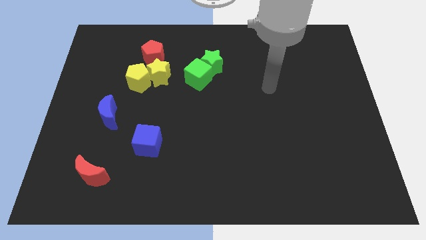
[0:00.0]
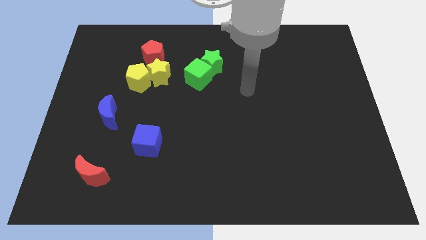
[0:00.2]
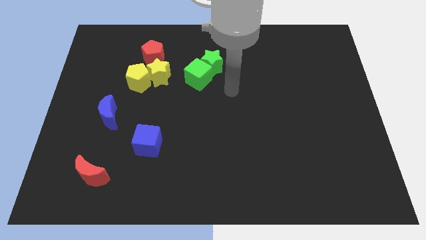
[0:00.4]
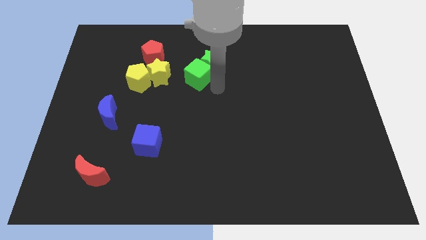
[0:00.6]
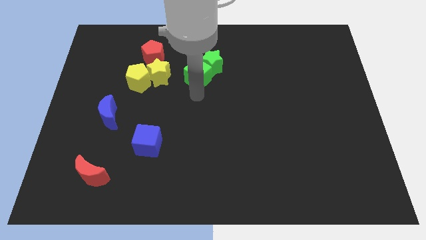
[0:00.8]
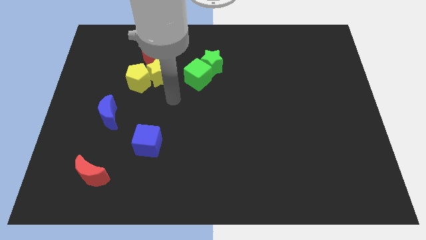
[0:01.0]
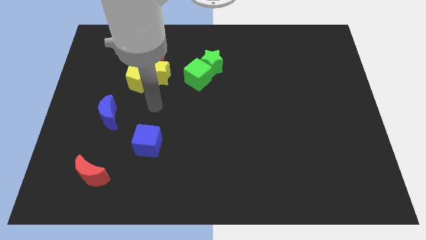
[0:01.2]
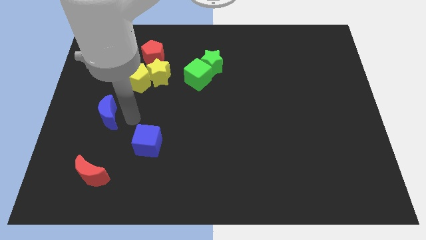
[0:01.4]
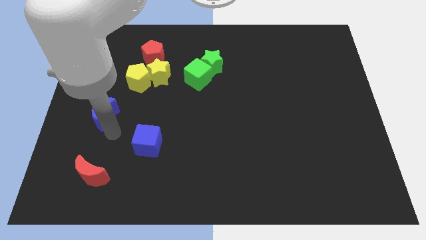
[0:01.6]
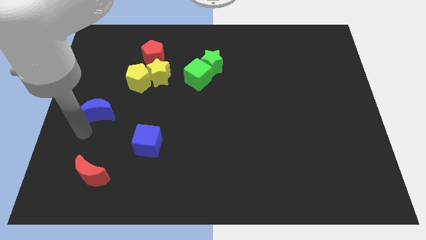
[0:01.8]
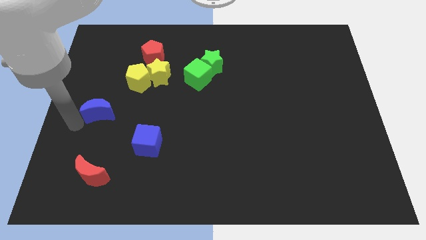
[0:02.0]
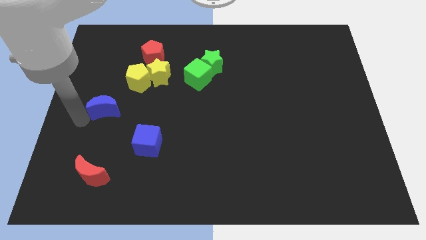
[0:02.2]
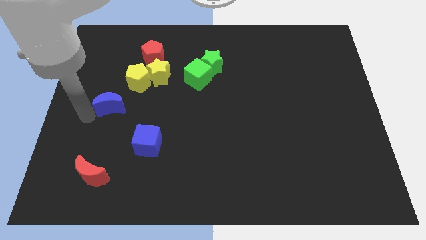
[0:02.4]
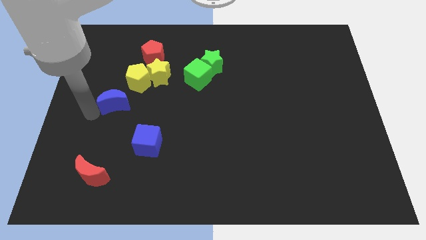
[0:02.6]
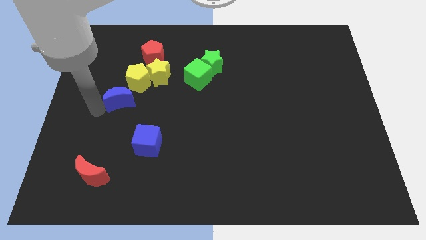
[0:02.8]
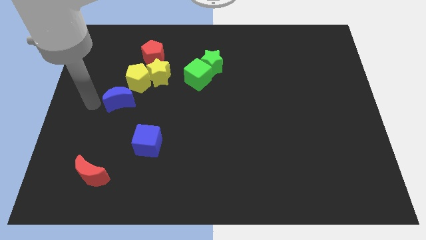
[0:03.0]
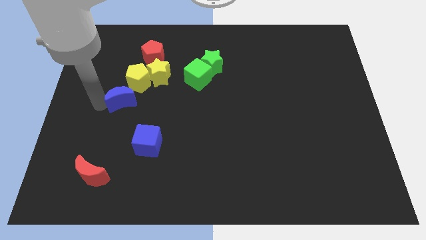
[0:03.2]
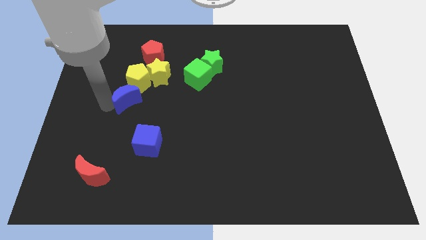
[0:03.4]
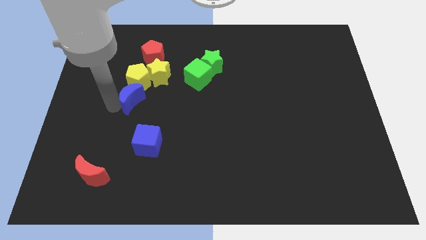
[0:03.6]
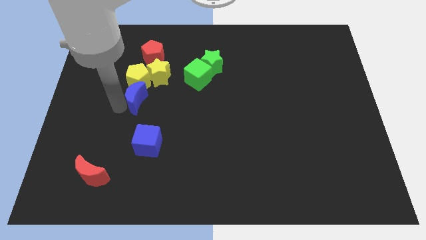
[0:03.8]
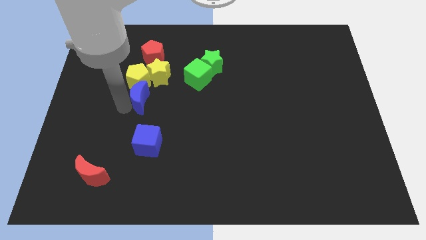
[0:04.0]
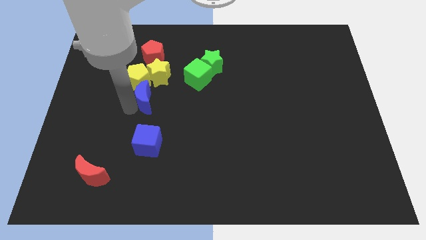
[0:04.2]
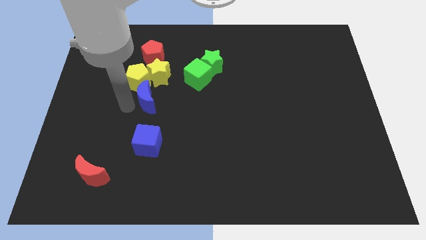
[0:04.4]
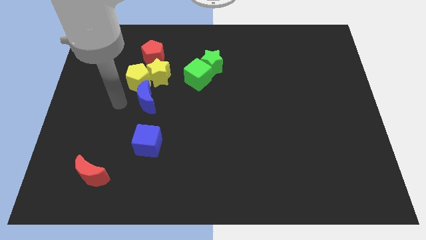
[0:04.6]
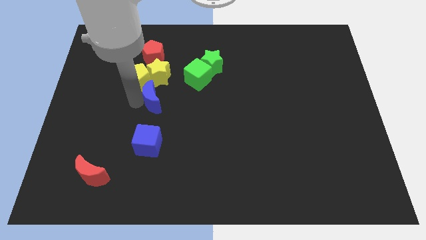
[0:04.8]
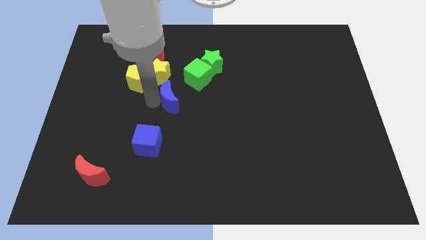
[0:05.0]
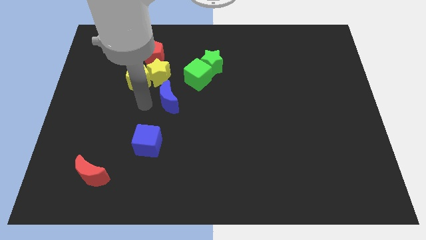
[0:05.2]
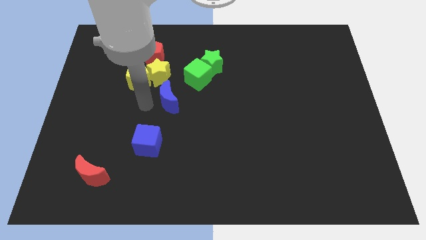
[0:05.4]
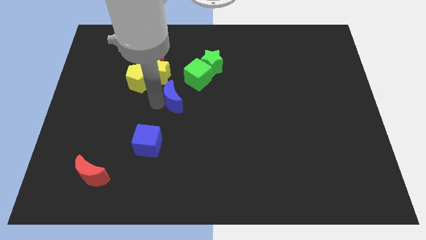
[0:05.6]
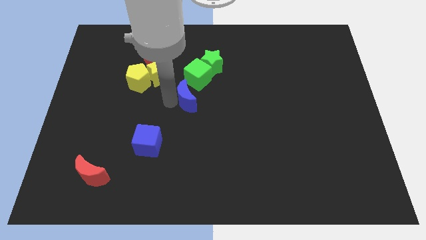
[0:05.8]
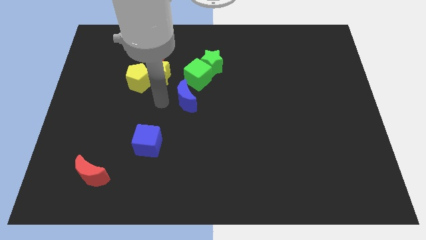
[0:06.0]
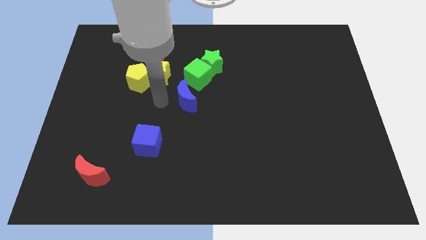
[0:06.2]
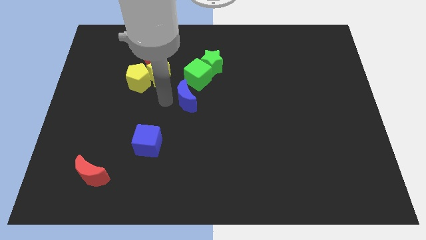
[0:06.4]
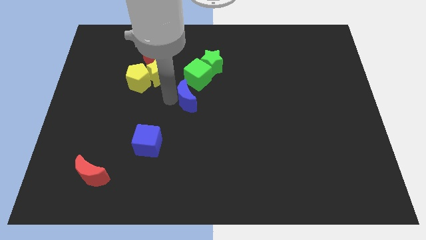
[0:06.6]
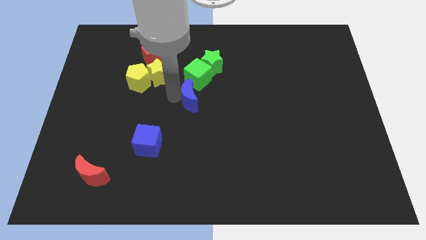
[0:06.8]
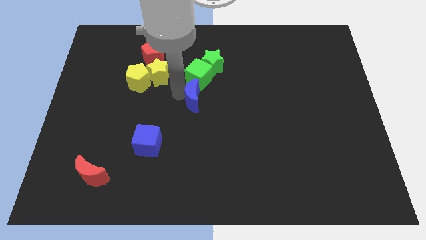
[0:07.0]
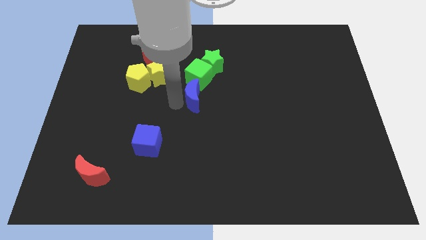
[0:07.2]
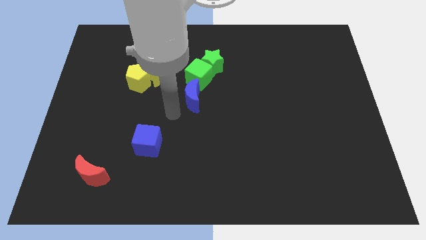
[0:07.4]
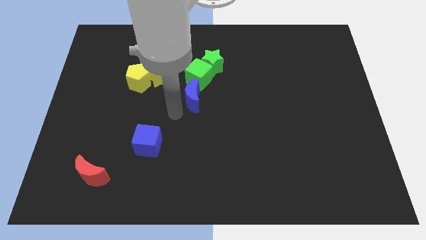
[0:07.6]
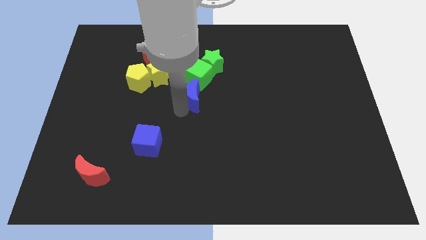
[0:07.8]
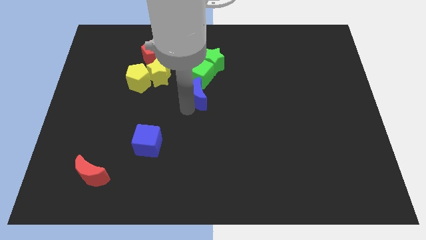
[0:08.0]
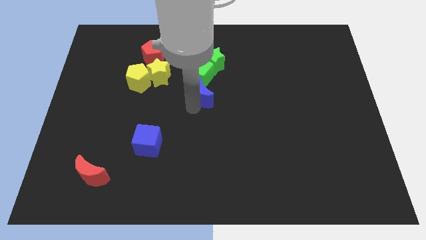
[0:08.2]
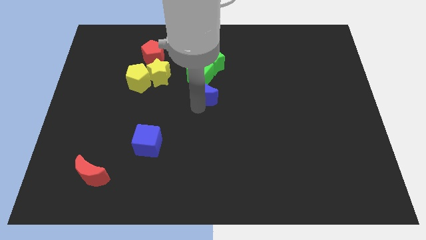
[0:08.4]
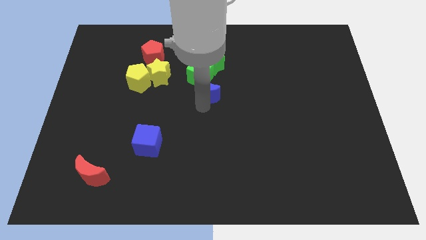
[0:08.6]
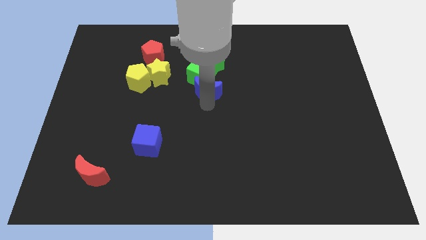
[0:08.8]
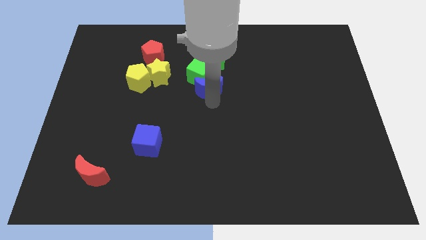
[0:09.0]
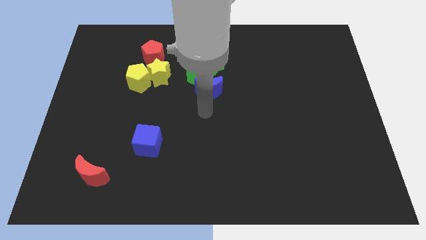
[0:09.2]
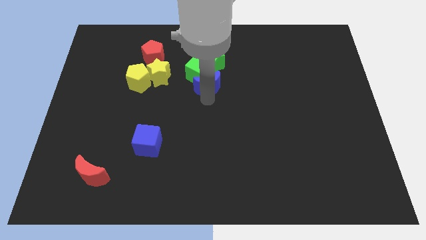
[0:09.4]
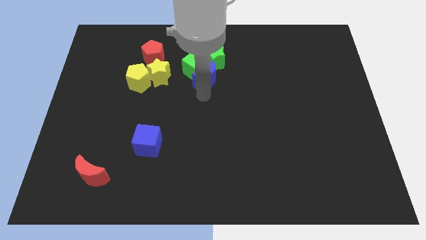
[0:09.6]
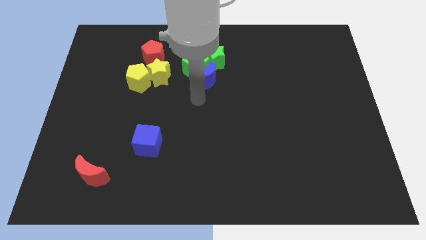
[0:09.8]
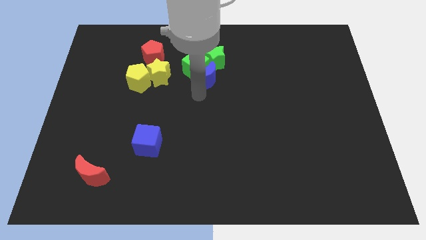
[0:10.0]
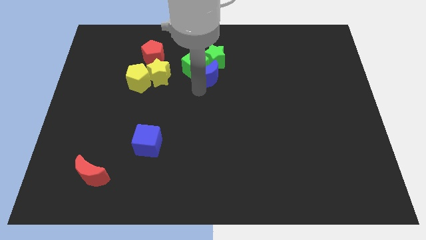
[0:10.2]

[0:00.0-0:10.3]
put the blue moon next to the green star

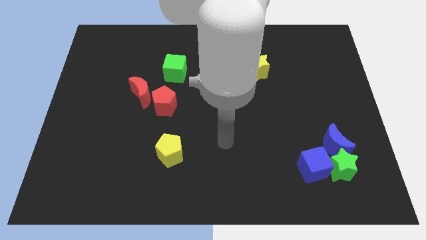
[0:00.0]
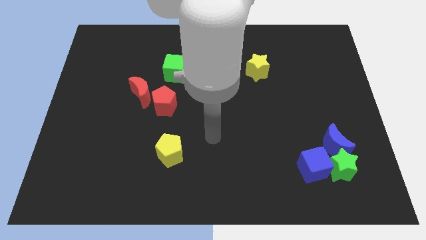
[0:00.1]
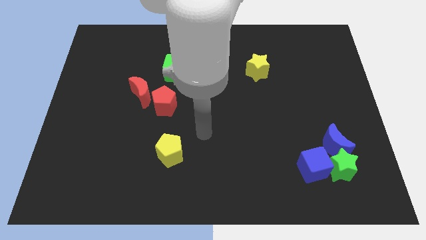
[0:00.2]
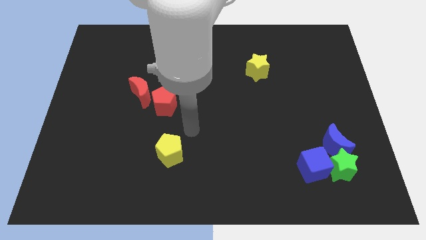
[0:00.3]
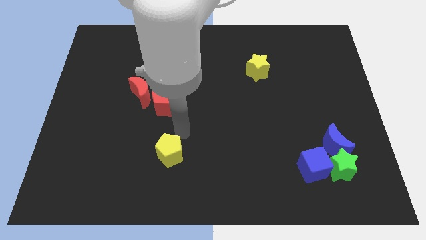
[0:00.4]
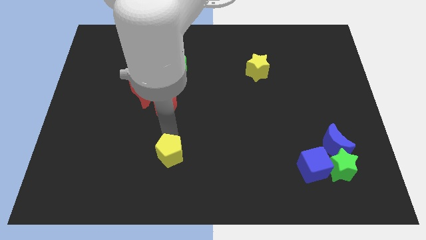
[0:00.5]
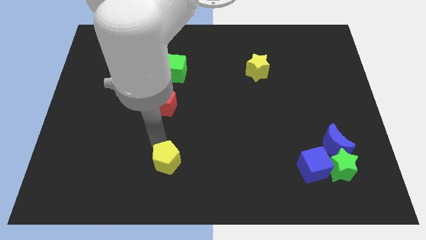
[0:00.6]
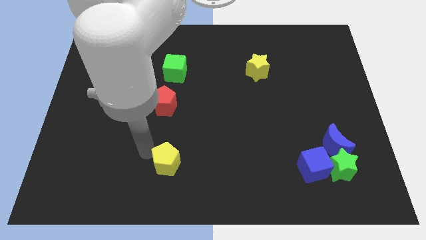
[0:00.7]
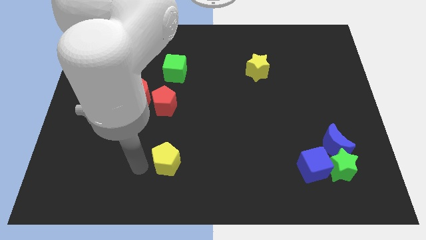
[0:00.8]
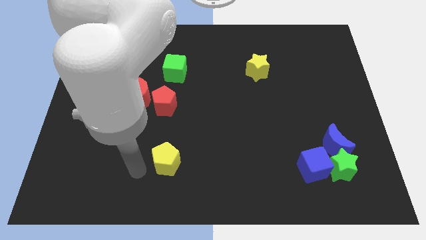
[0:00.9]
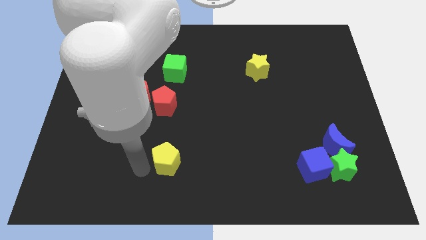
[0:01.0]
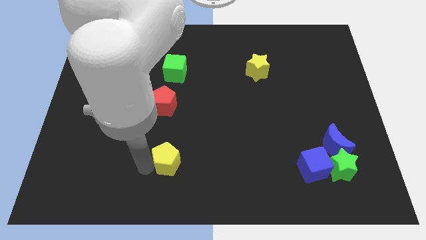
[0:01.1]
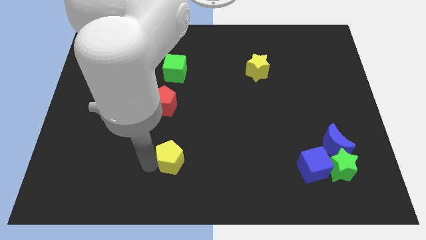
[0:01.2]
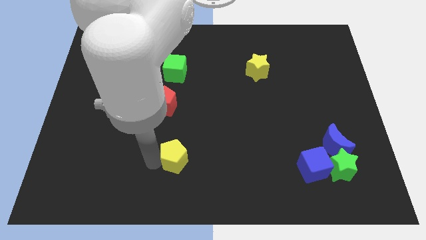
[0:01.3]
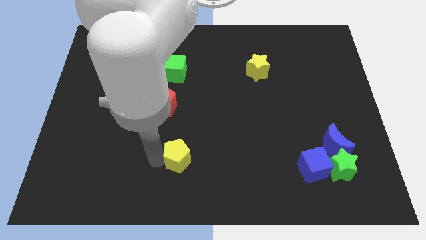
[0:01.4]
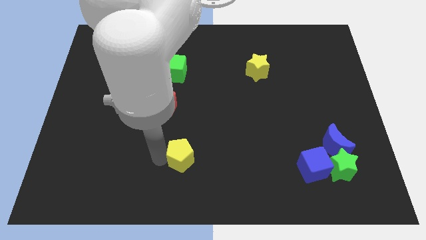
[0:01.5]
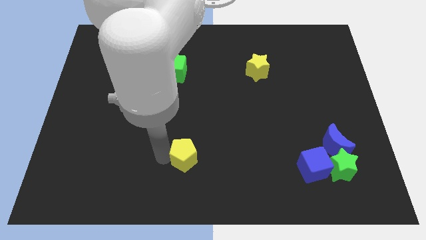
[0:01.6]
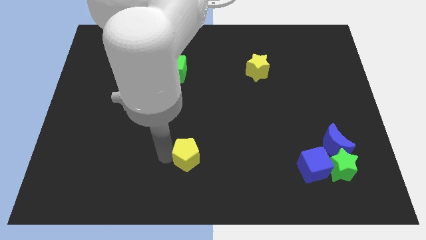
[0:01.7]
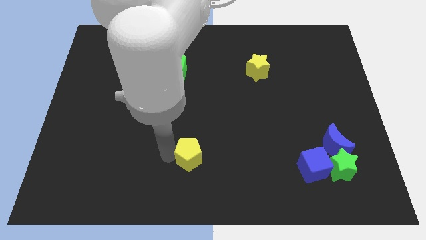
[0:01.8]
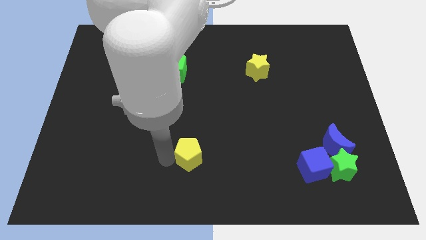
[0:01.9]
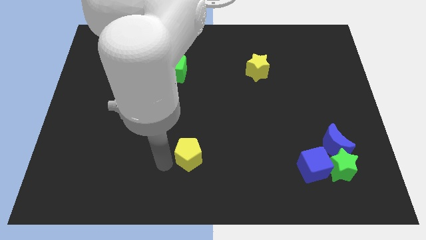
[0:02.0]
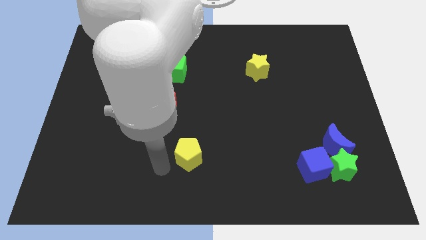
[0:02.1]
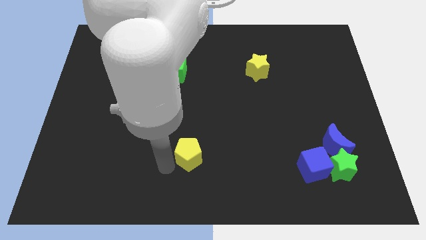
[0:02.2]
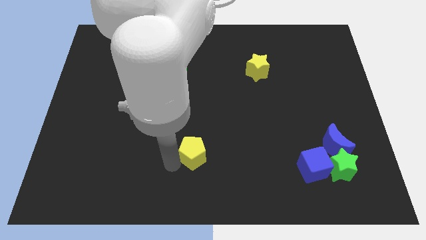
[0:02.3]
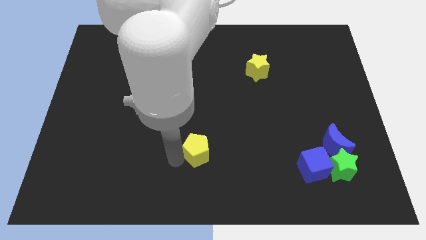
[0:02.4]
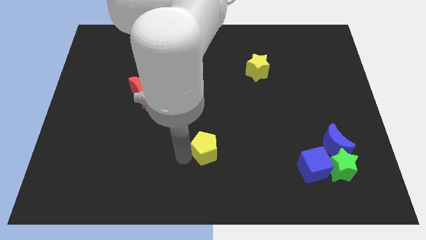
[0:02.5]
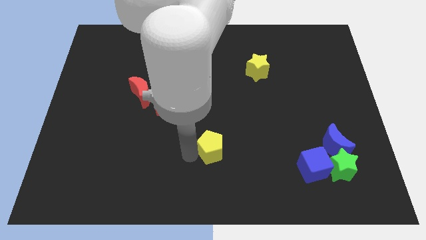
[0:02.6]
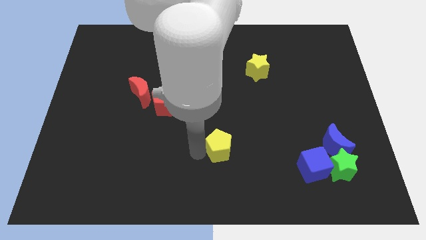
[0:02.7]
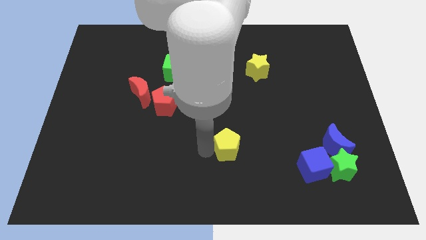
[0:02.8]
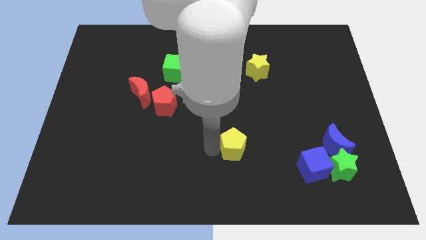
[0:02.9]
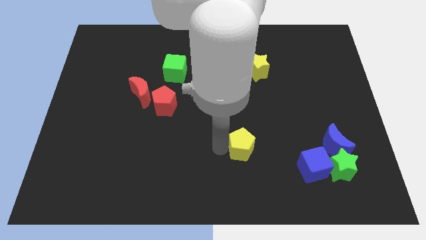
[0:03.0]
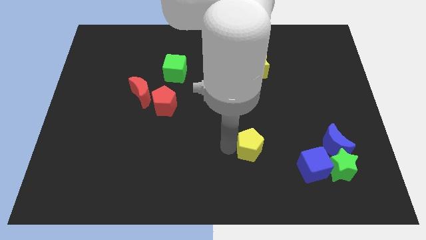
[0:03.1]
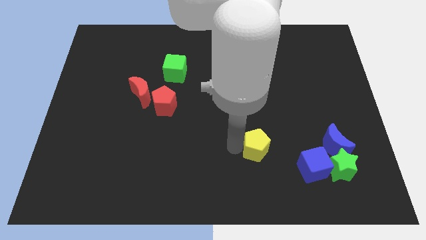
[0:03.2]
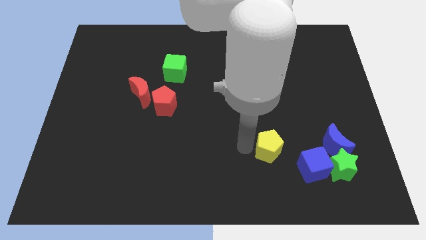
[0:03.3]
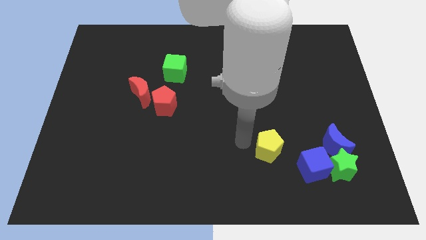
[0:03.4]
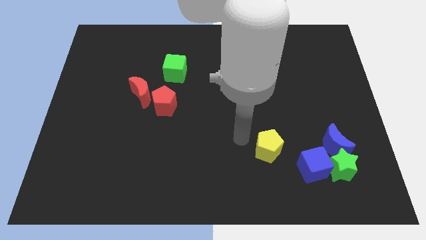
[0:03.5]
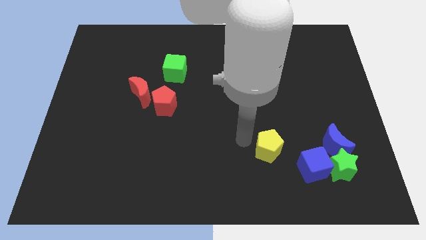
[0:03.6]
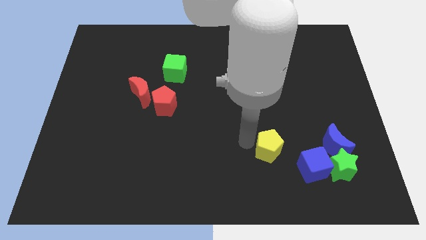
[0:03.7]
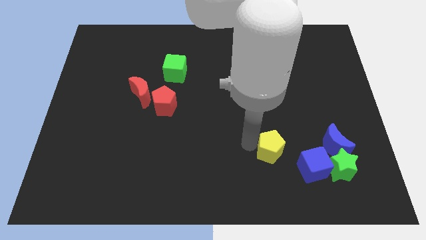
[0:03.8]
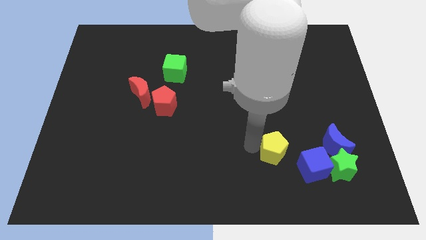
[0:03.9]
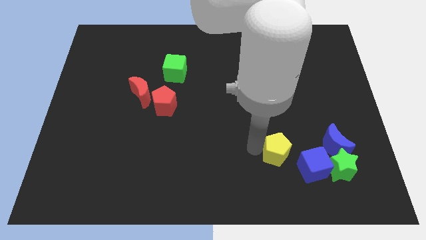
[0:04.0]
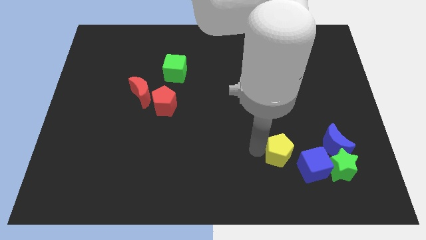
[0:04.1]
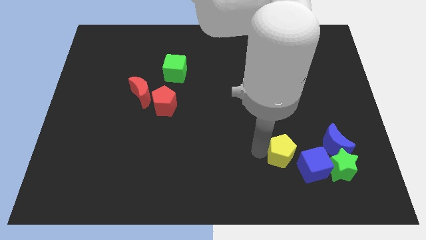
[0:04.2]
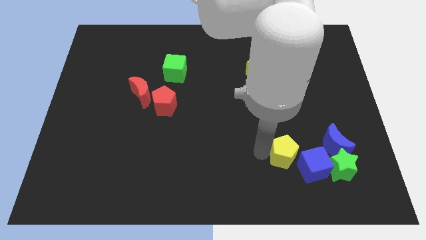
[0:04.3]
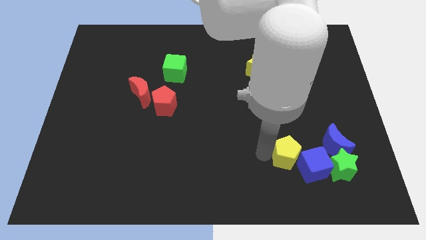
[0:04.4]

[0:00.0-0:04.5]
move the yellow pentagon close to the blue cube
